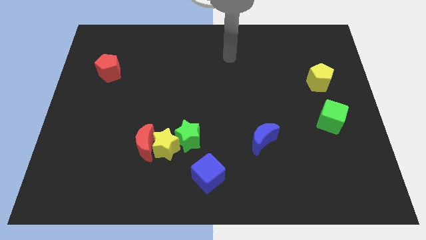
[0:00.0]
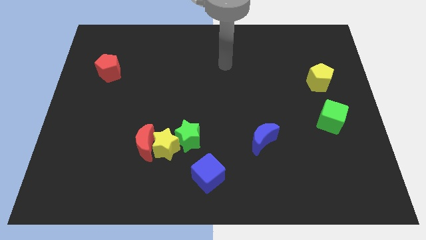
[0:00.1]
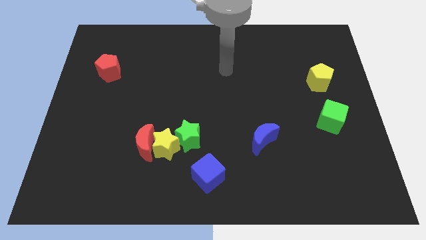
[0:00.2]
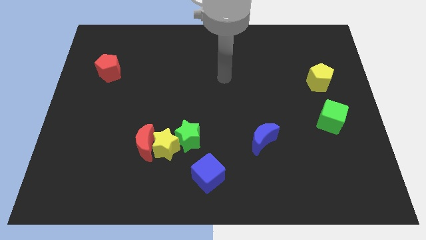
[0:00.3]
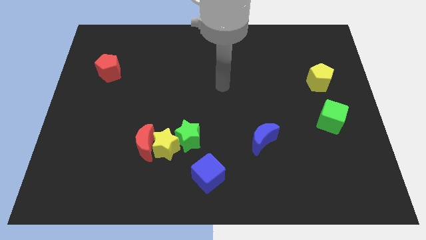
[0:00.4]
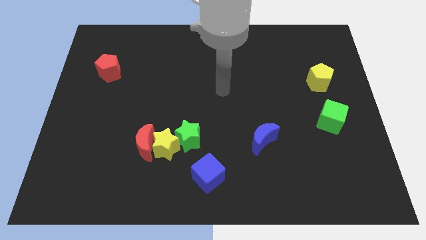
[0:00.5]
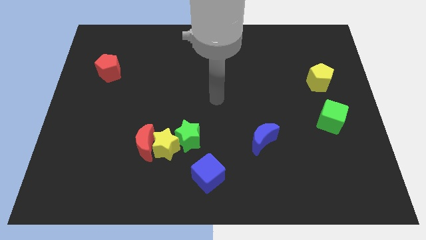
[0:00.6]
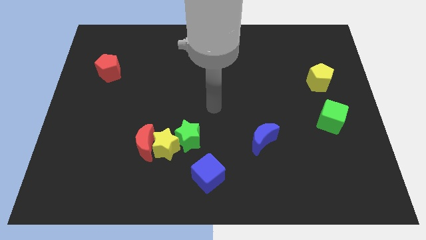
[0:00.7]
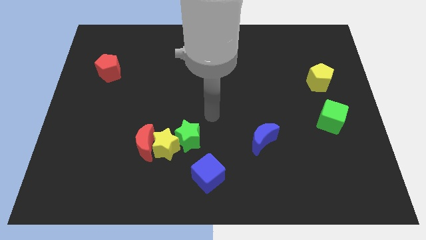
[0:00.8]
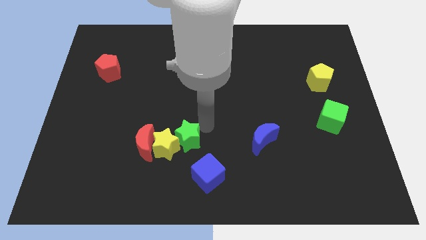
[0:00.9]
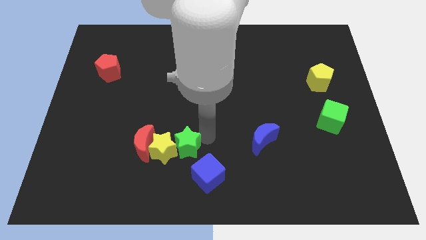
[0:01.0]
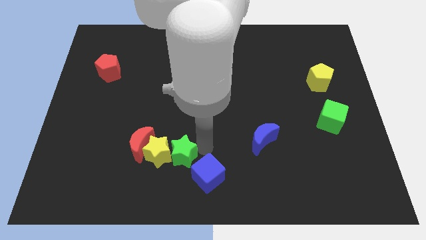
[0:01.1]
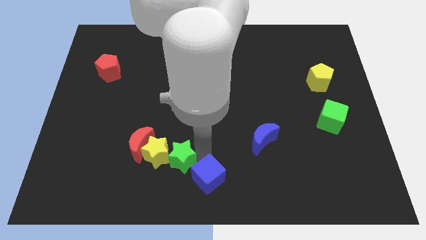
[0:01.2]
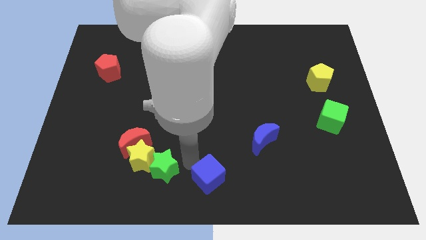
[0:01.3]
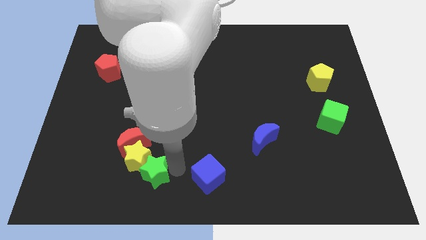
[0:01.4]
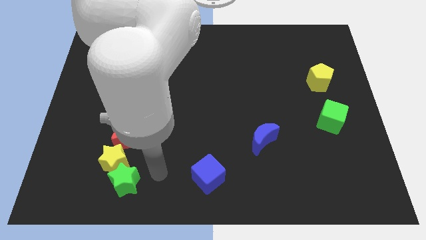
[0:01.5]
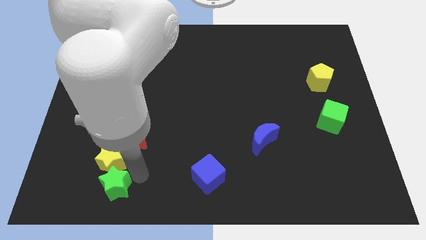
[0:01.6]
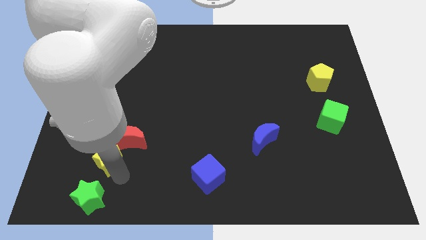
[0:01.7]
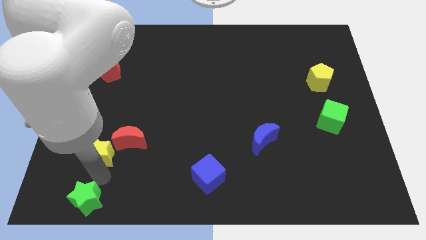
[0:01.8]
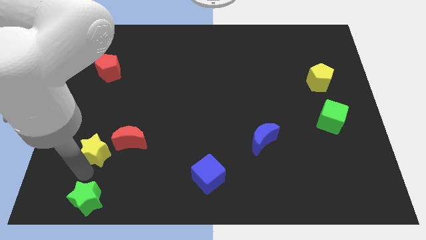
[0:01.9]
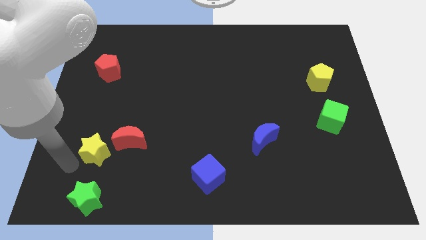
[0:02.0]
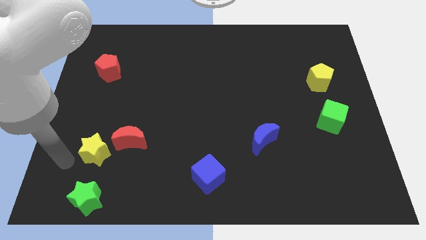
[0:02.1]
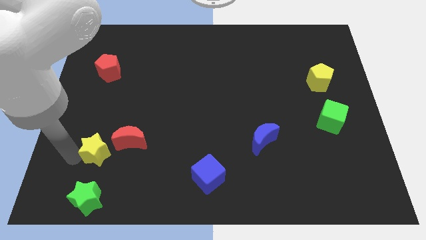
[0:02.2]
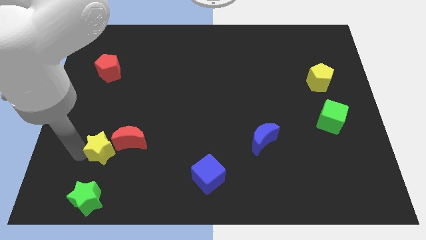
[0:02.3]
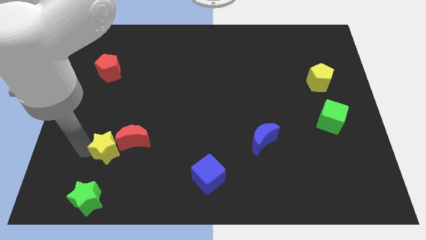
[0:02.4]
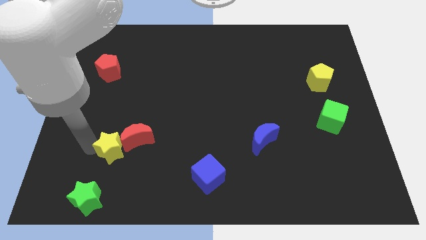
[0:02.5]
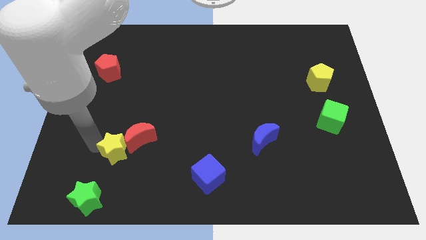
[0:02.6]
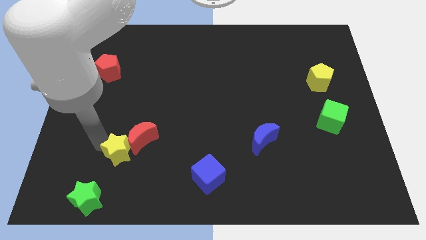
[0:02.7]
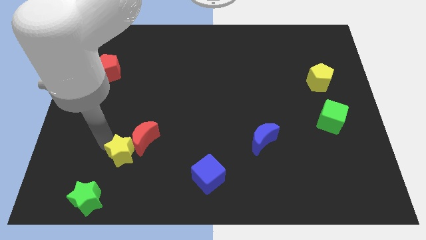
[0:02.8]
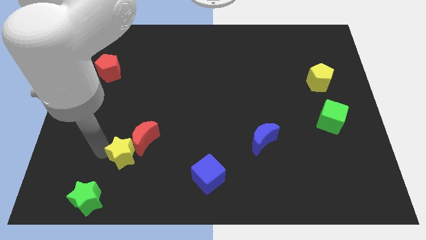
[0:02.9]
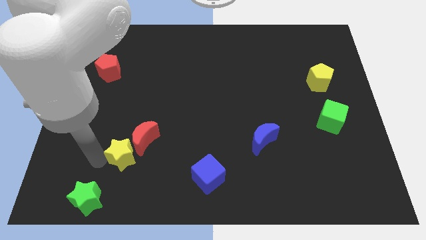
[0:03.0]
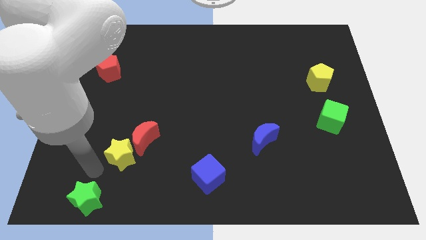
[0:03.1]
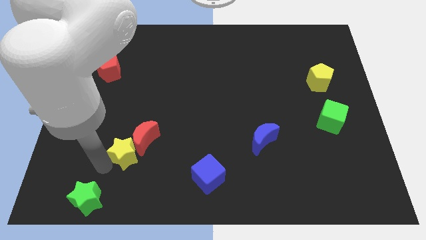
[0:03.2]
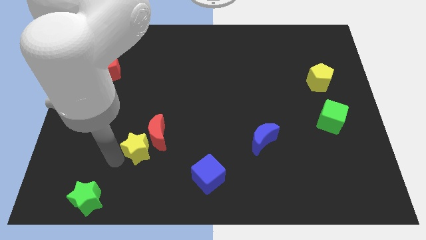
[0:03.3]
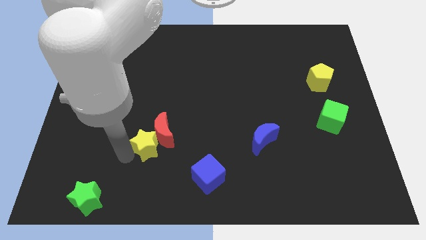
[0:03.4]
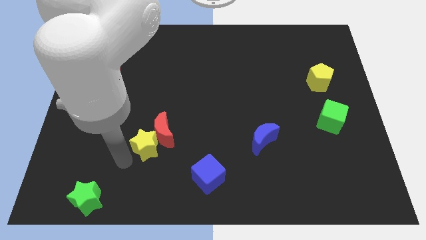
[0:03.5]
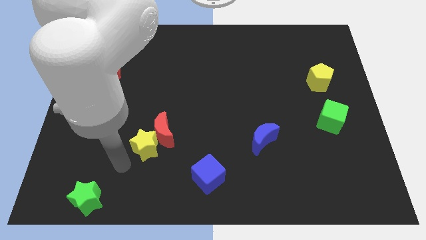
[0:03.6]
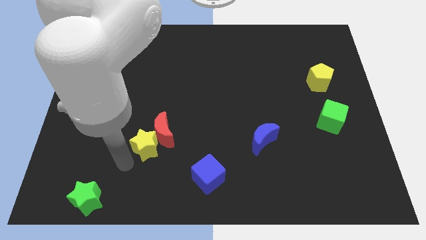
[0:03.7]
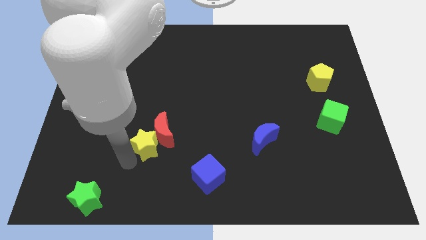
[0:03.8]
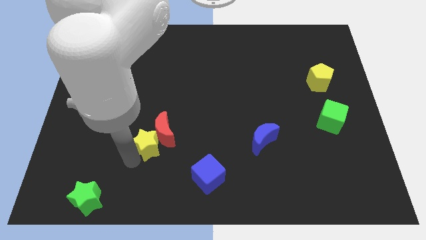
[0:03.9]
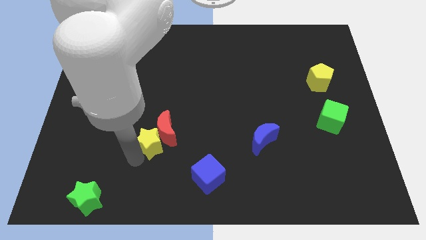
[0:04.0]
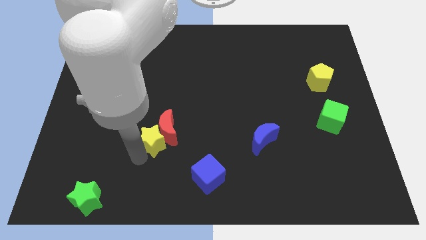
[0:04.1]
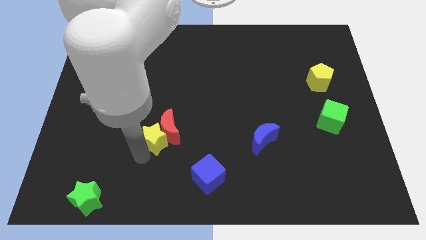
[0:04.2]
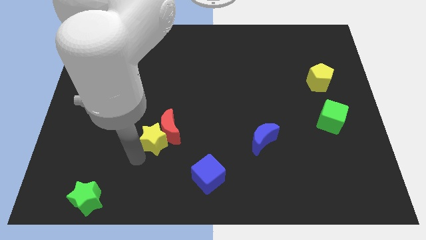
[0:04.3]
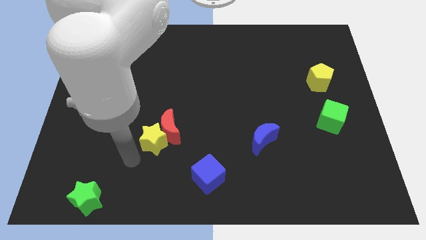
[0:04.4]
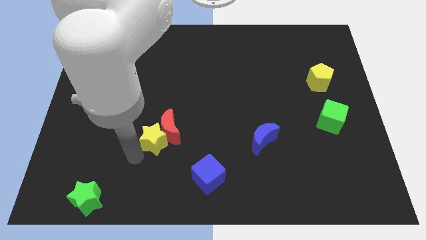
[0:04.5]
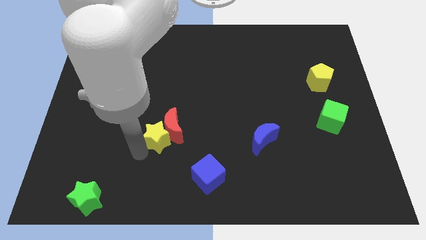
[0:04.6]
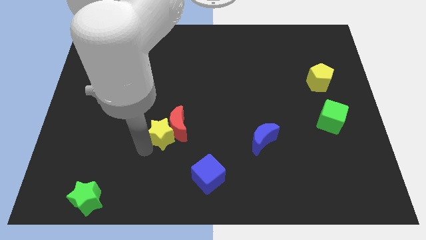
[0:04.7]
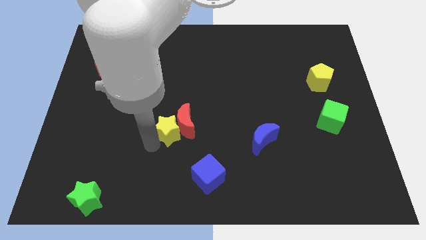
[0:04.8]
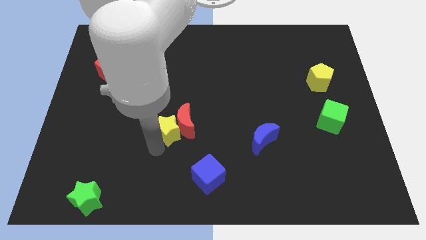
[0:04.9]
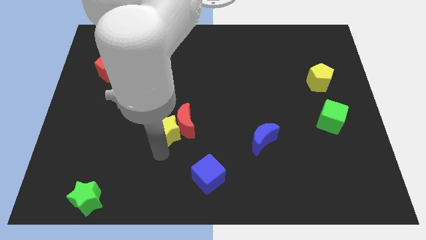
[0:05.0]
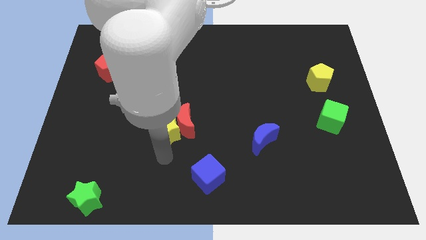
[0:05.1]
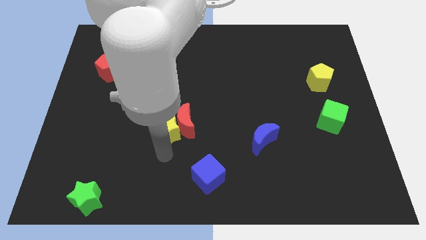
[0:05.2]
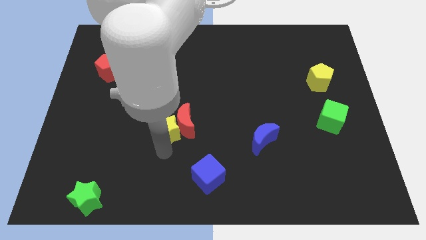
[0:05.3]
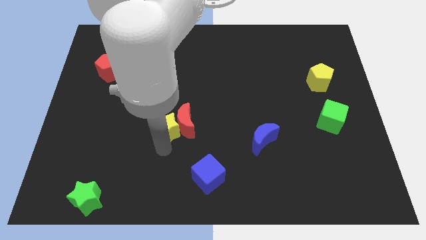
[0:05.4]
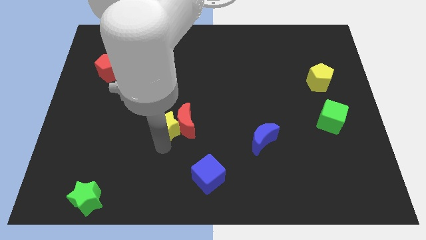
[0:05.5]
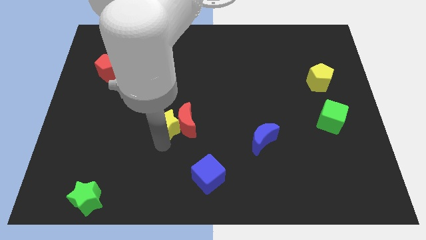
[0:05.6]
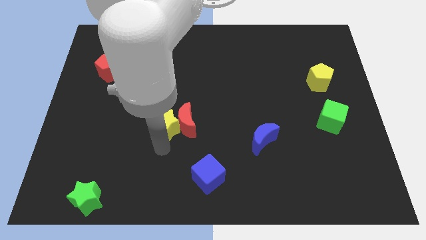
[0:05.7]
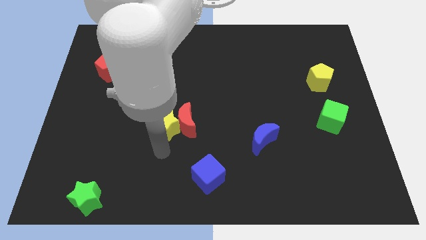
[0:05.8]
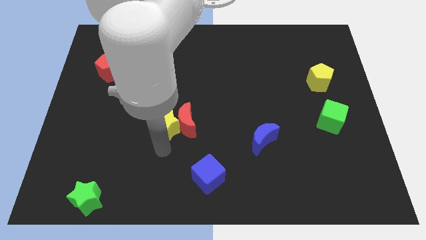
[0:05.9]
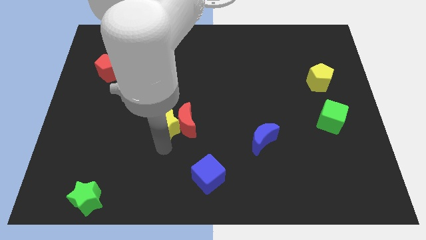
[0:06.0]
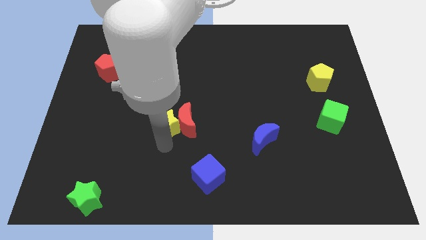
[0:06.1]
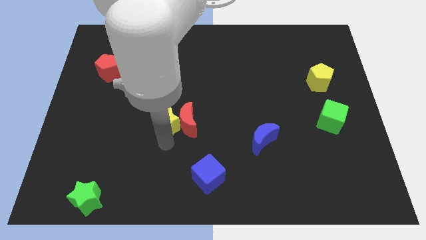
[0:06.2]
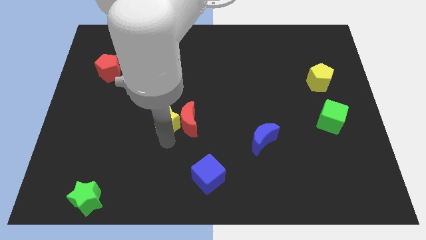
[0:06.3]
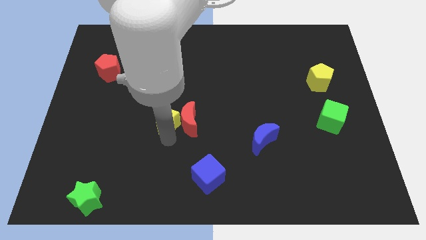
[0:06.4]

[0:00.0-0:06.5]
move the yellow star upwards a little bit

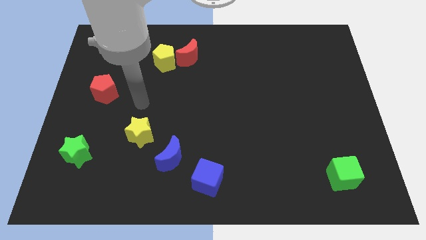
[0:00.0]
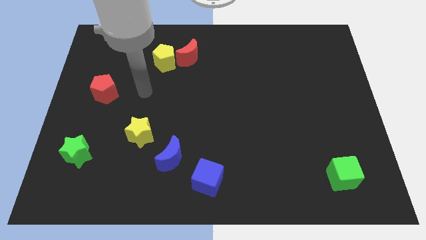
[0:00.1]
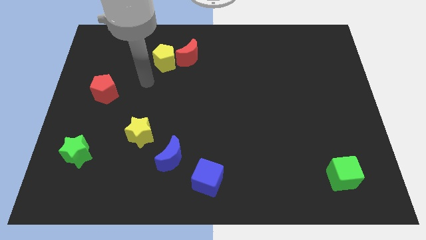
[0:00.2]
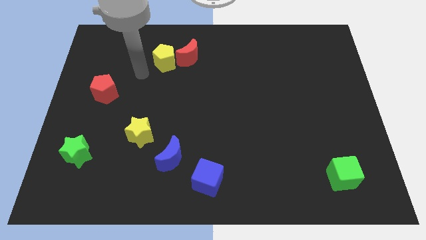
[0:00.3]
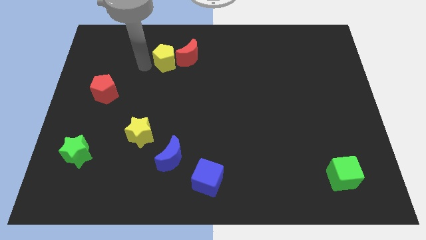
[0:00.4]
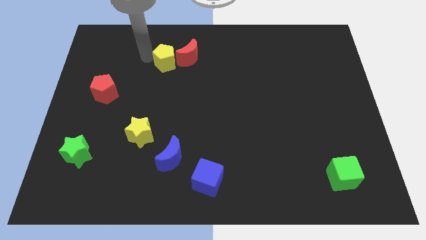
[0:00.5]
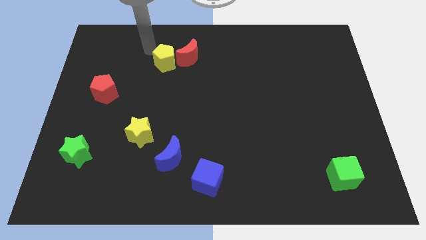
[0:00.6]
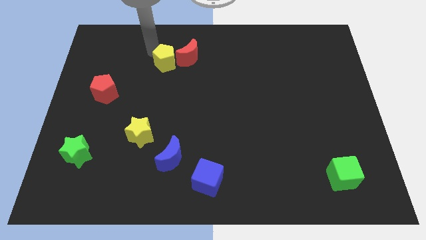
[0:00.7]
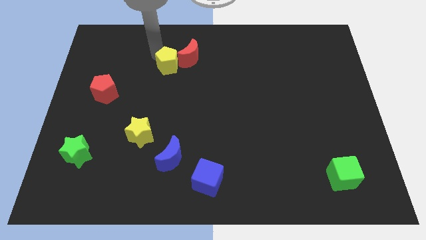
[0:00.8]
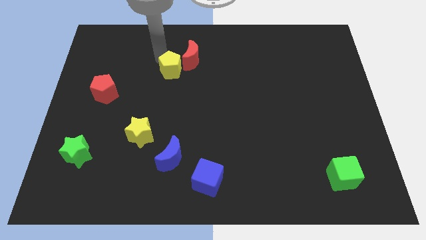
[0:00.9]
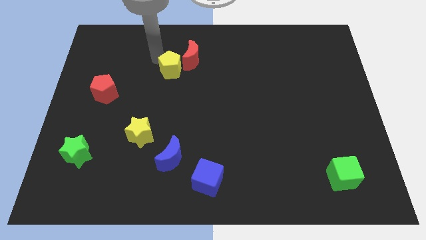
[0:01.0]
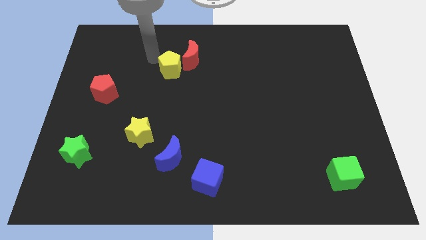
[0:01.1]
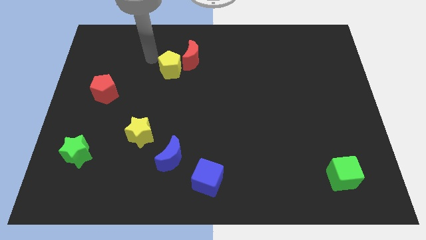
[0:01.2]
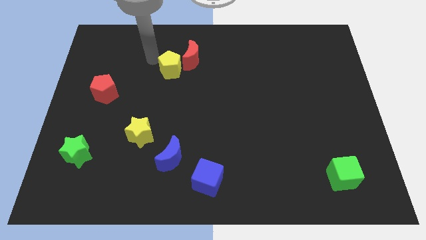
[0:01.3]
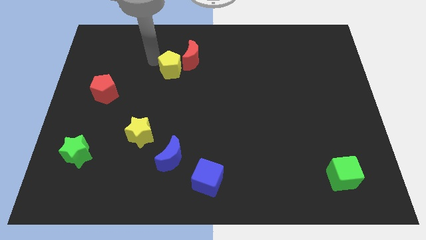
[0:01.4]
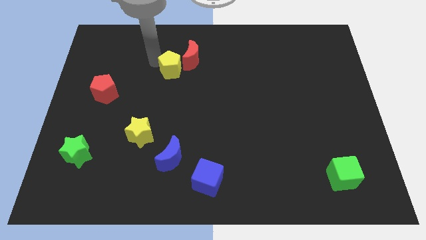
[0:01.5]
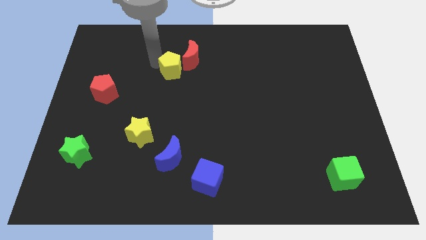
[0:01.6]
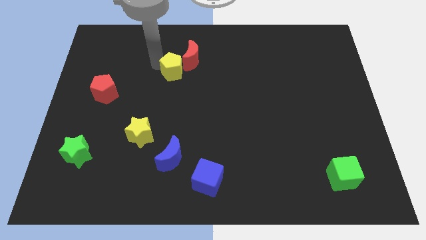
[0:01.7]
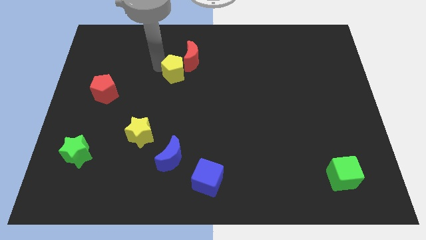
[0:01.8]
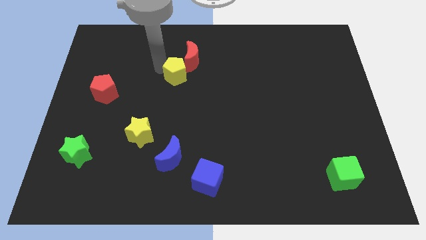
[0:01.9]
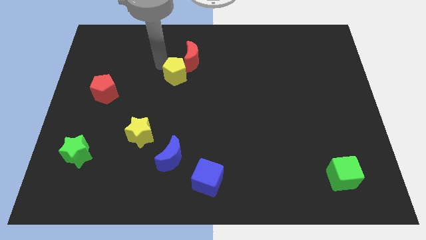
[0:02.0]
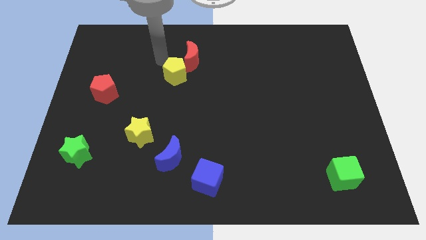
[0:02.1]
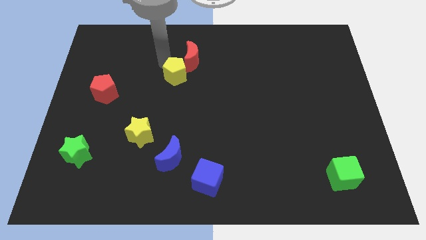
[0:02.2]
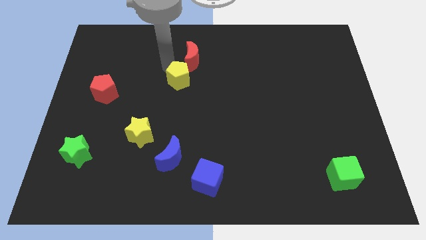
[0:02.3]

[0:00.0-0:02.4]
slightly slide the yellow pentagon down and then to the right
